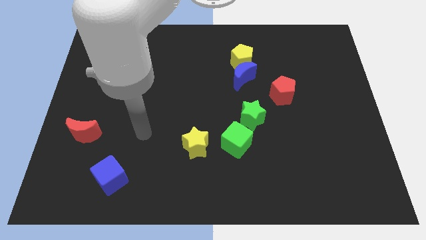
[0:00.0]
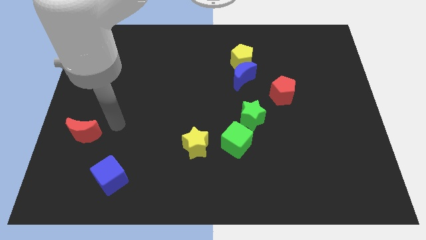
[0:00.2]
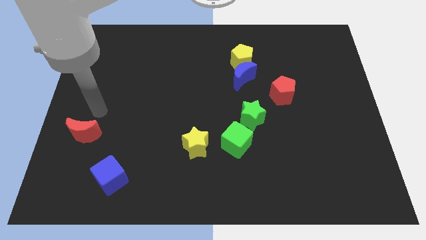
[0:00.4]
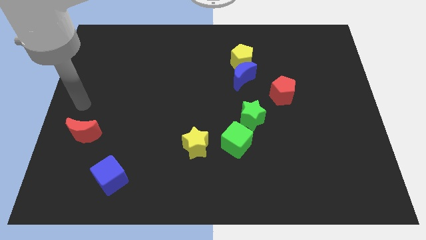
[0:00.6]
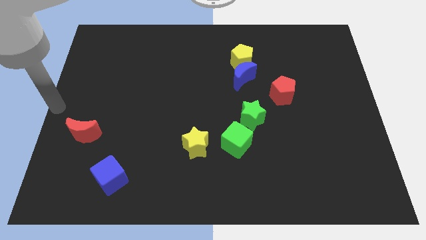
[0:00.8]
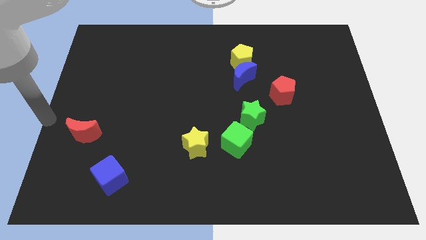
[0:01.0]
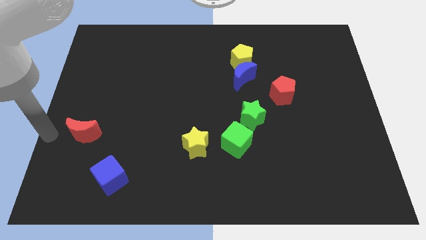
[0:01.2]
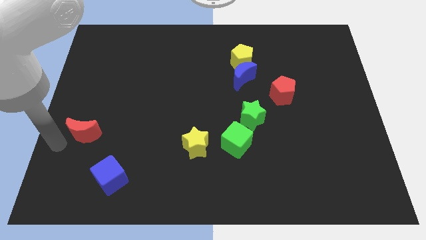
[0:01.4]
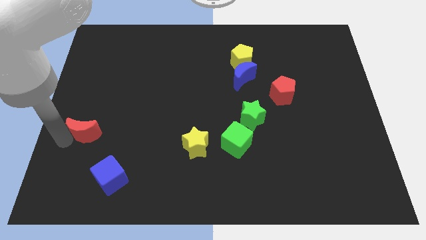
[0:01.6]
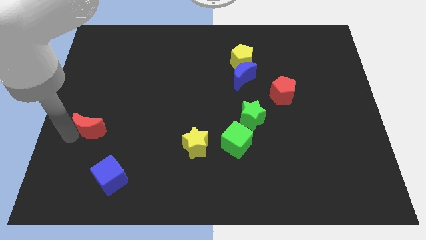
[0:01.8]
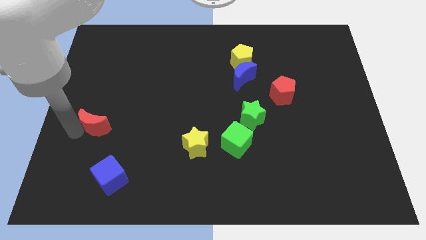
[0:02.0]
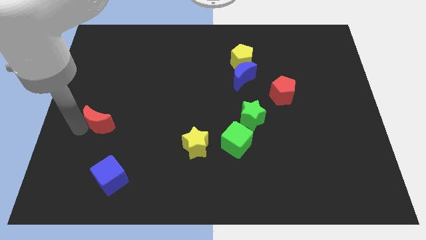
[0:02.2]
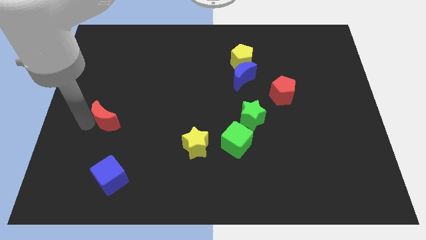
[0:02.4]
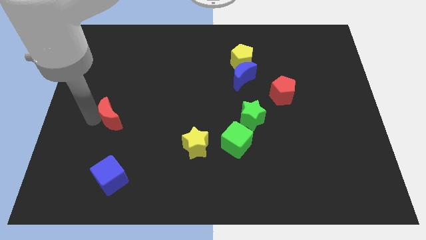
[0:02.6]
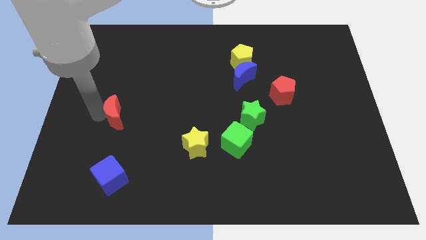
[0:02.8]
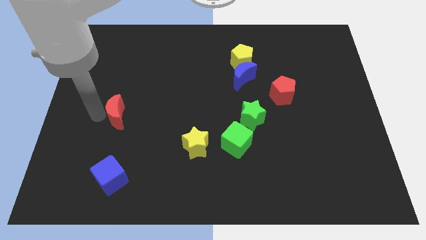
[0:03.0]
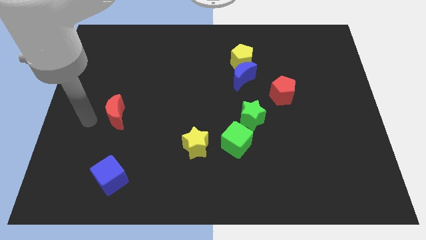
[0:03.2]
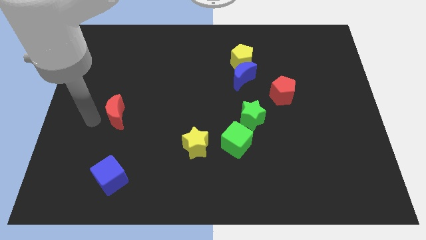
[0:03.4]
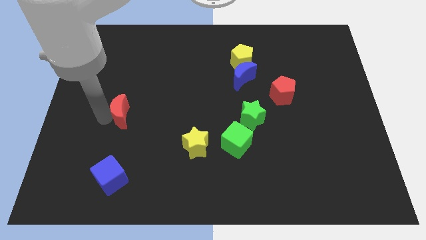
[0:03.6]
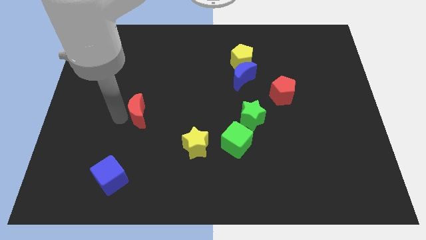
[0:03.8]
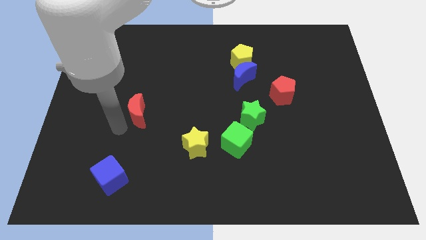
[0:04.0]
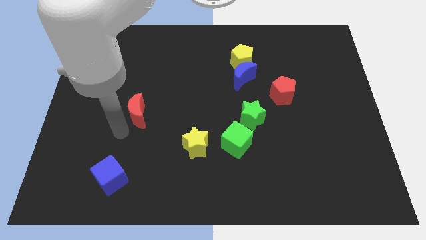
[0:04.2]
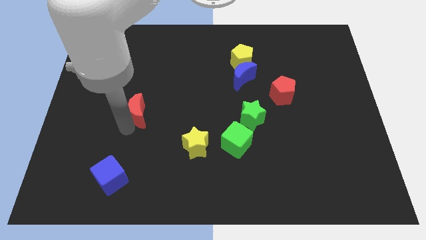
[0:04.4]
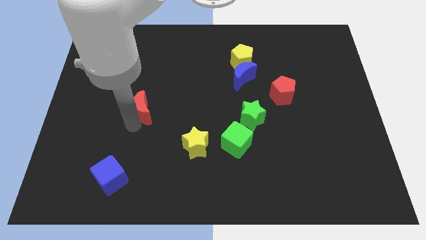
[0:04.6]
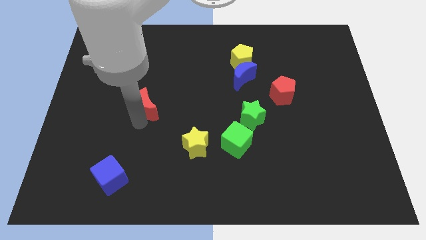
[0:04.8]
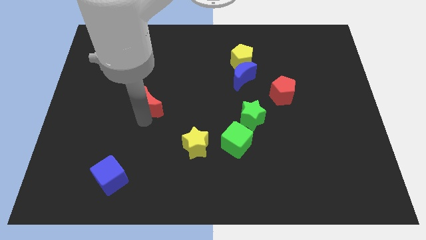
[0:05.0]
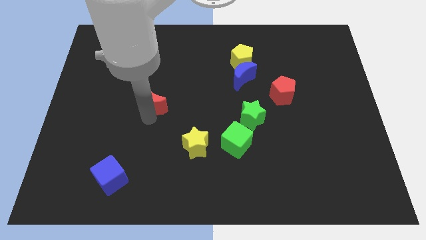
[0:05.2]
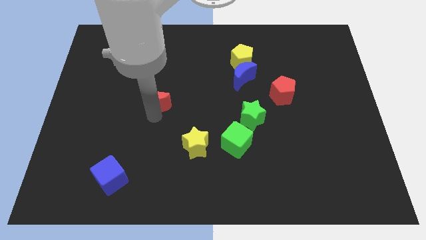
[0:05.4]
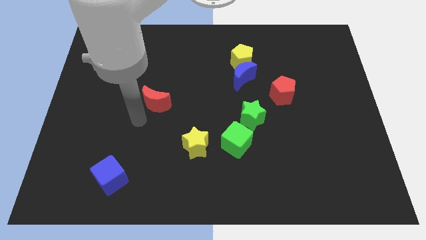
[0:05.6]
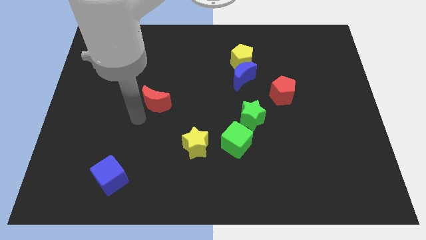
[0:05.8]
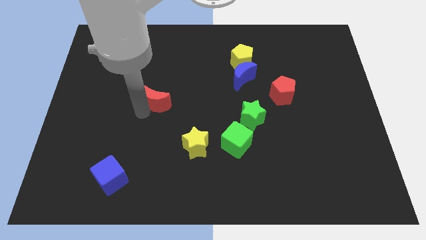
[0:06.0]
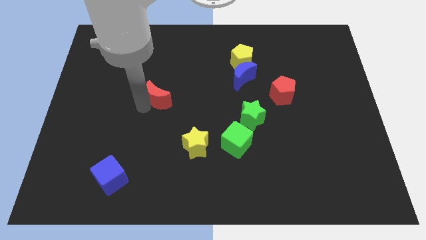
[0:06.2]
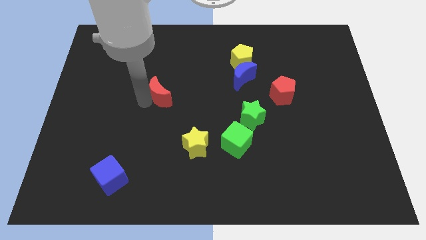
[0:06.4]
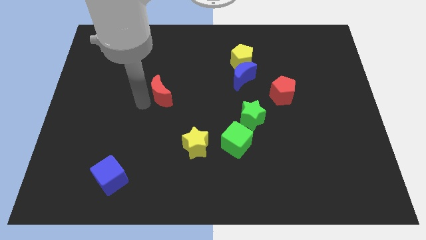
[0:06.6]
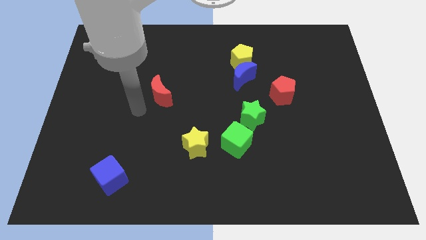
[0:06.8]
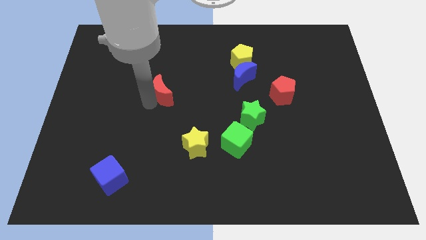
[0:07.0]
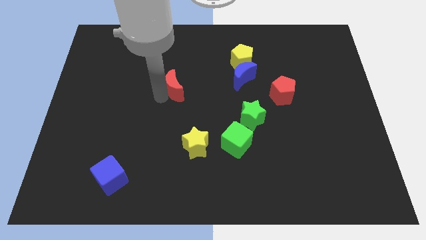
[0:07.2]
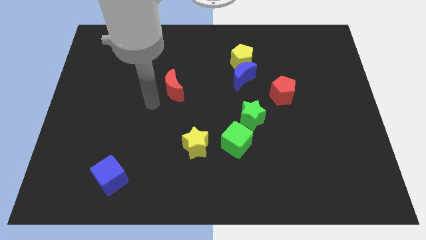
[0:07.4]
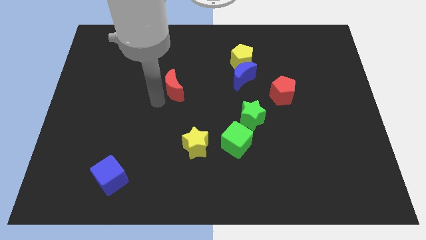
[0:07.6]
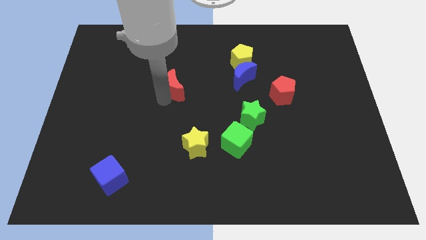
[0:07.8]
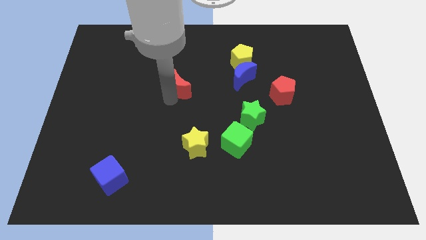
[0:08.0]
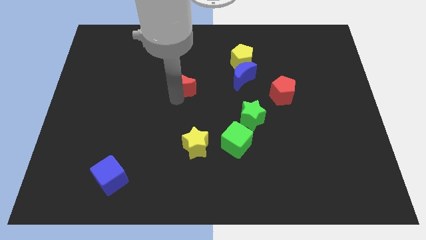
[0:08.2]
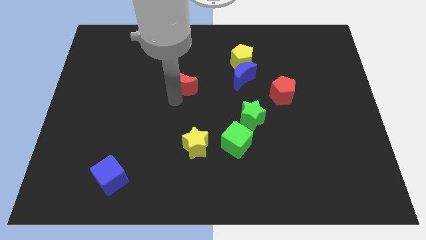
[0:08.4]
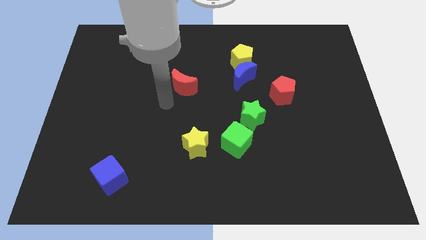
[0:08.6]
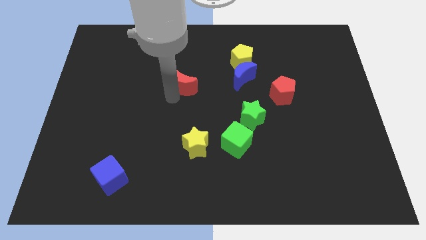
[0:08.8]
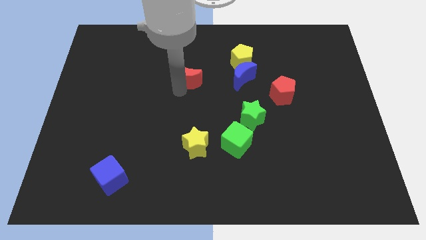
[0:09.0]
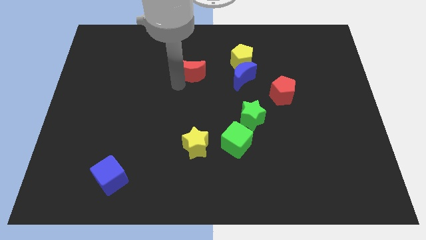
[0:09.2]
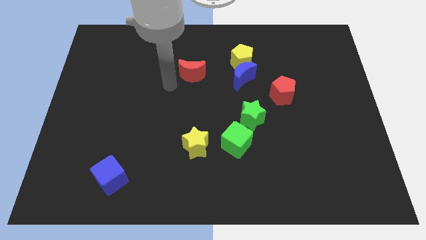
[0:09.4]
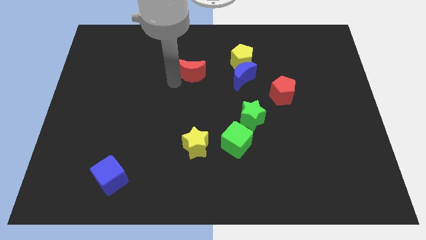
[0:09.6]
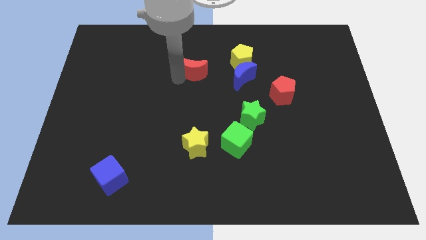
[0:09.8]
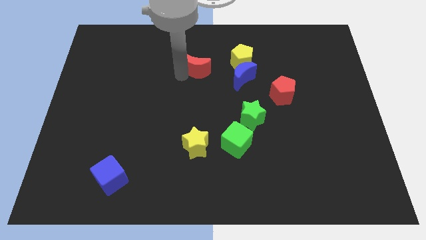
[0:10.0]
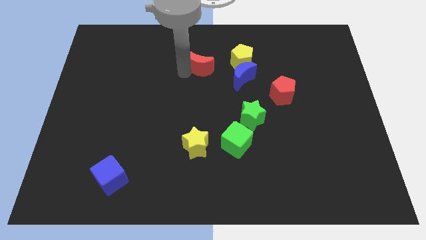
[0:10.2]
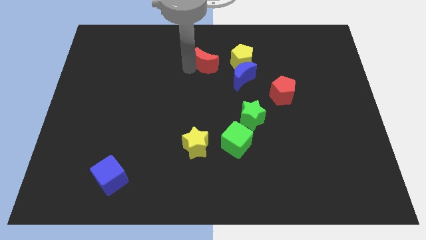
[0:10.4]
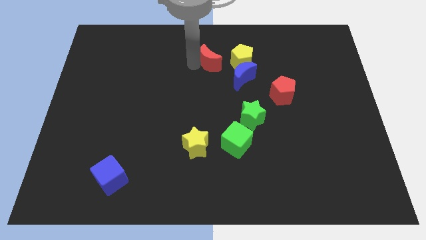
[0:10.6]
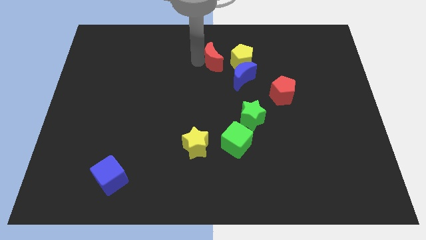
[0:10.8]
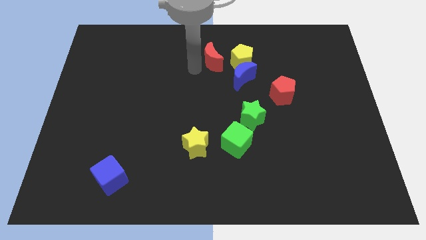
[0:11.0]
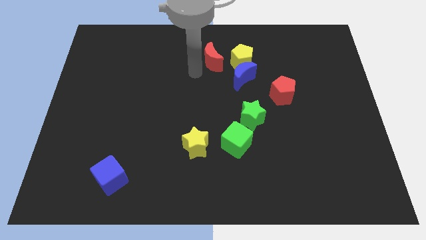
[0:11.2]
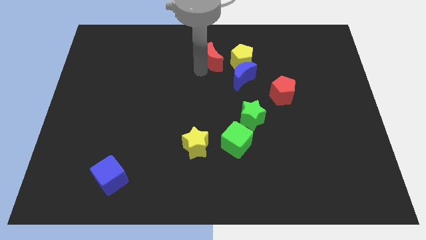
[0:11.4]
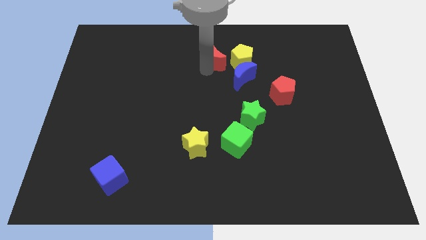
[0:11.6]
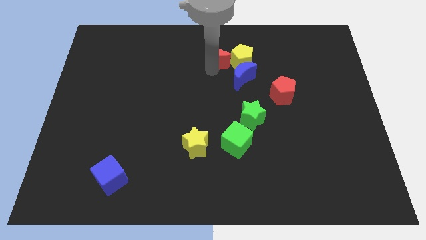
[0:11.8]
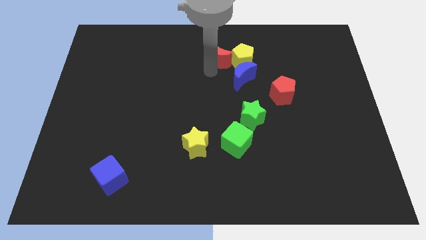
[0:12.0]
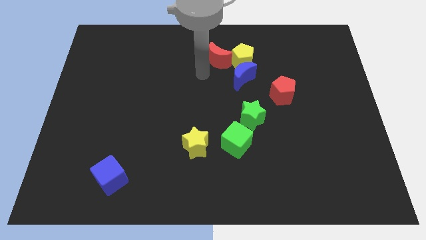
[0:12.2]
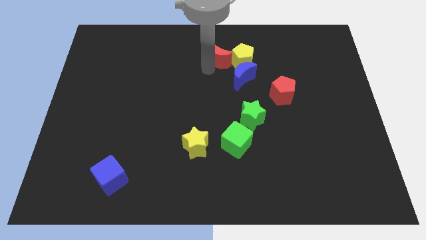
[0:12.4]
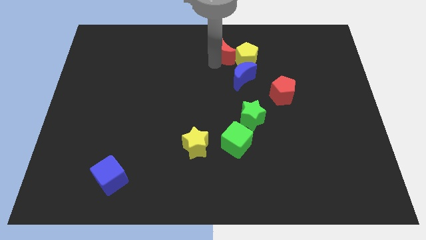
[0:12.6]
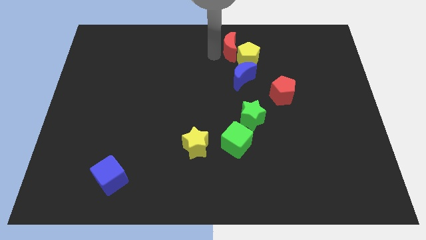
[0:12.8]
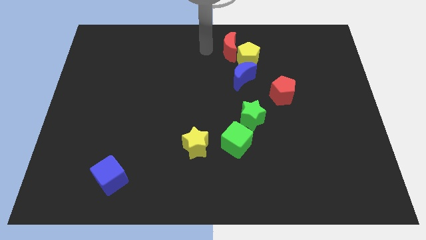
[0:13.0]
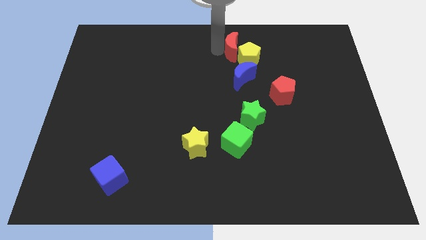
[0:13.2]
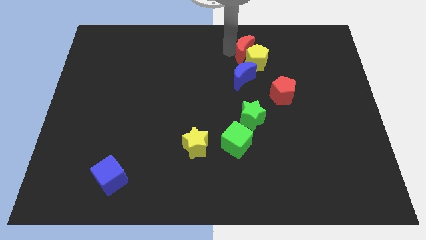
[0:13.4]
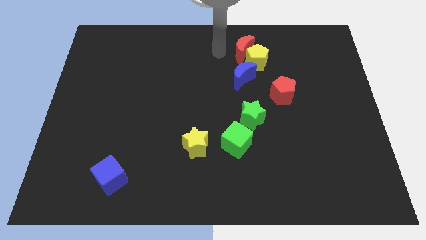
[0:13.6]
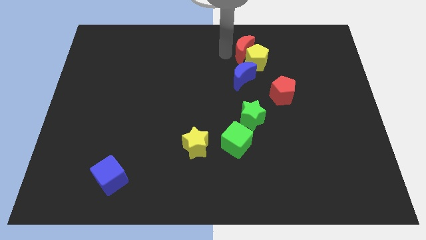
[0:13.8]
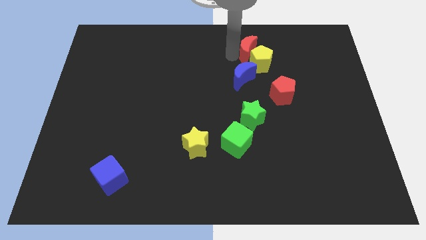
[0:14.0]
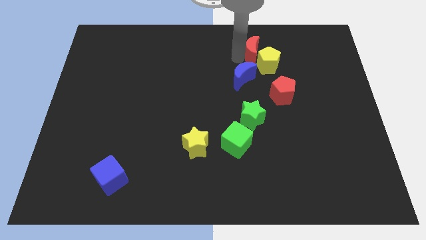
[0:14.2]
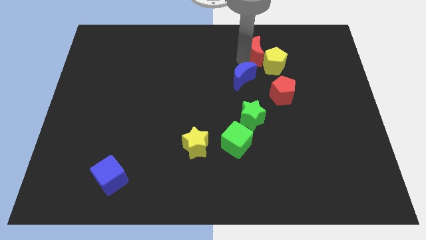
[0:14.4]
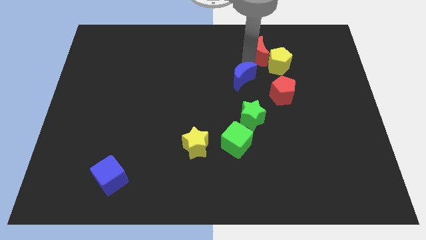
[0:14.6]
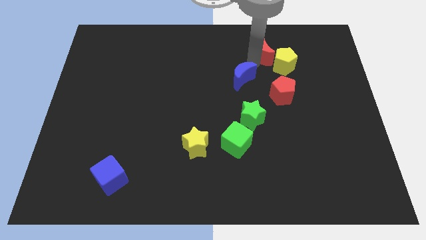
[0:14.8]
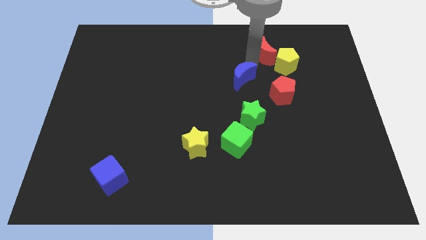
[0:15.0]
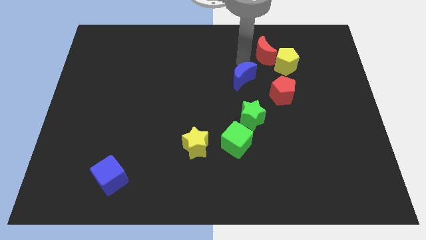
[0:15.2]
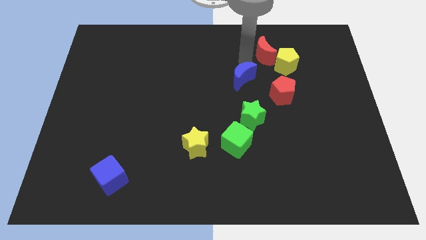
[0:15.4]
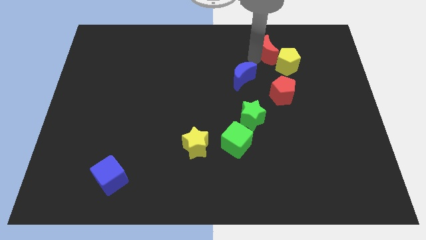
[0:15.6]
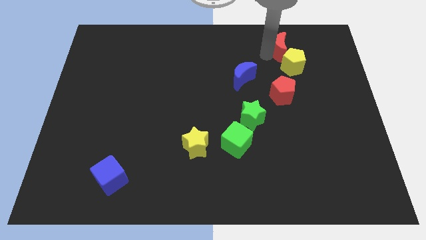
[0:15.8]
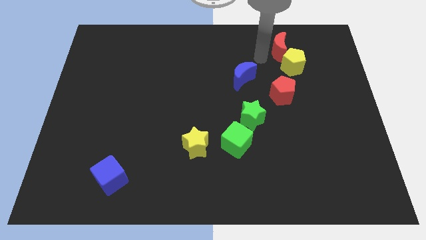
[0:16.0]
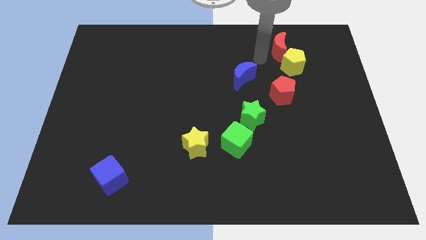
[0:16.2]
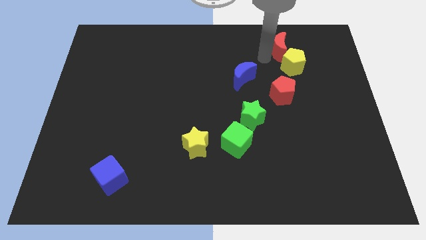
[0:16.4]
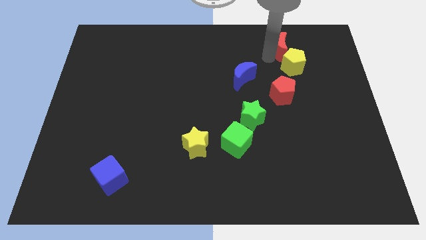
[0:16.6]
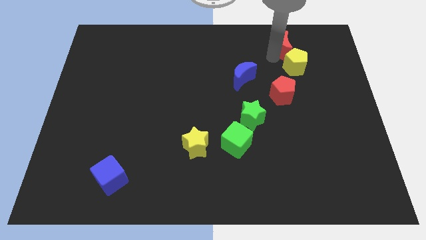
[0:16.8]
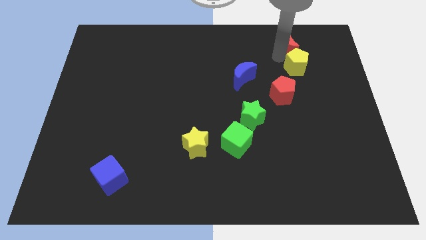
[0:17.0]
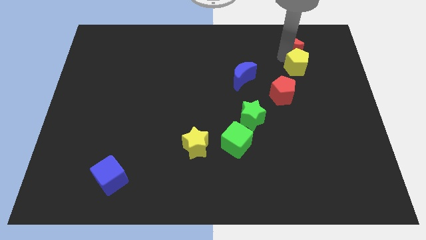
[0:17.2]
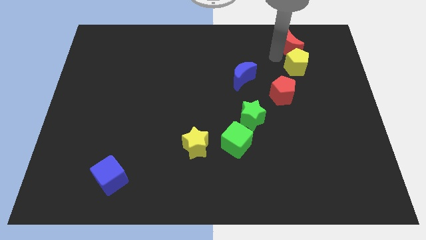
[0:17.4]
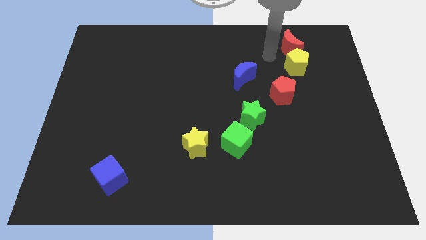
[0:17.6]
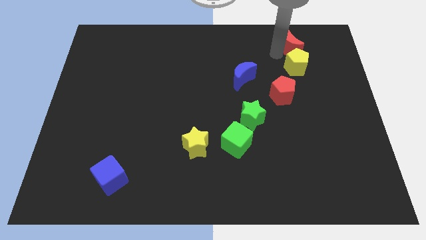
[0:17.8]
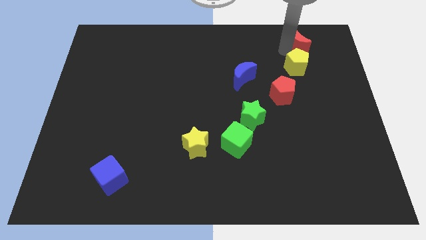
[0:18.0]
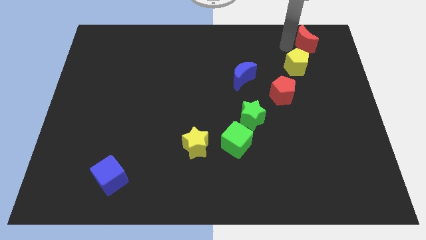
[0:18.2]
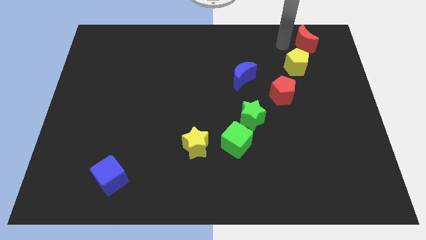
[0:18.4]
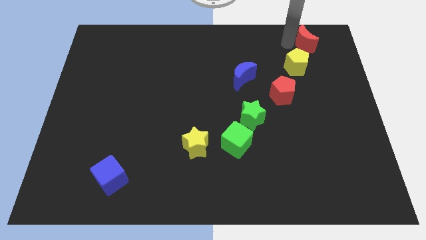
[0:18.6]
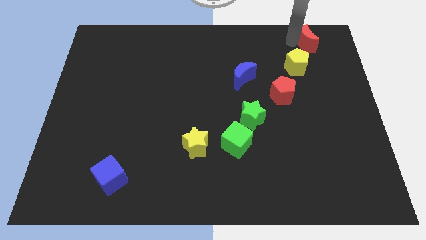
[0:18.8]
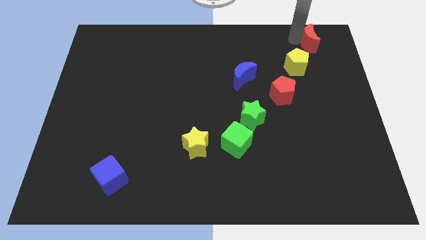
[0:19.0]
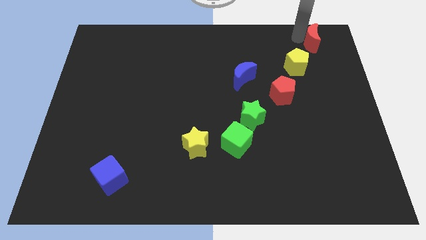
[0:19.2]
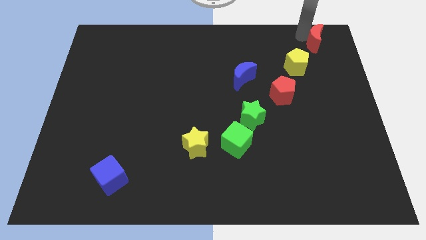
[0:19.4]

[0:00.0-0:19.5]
put the red moon to the top right corner
